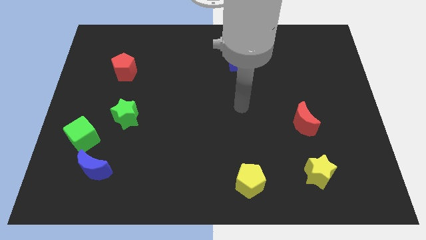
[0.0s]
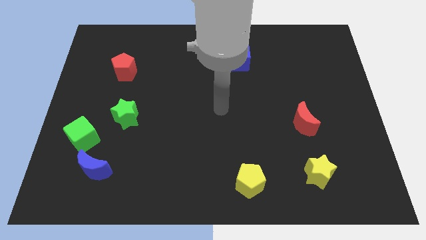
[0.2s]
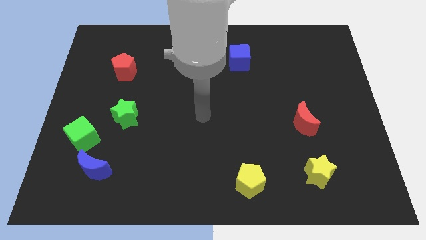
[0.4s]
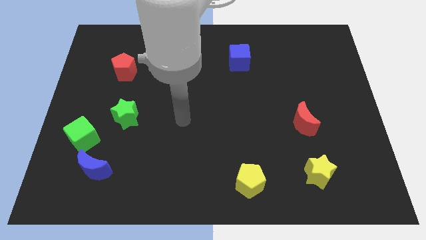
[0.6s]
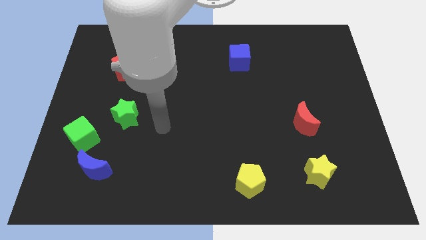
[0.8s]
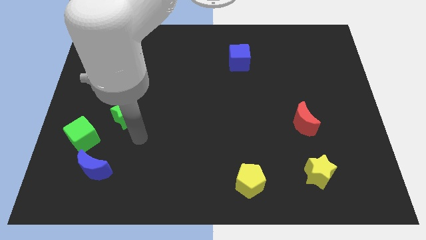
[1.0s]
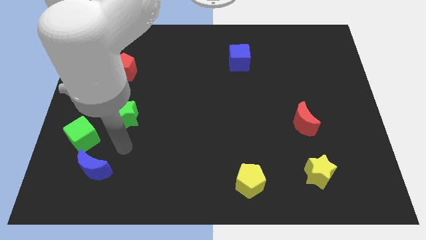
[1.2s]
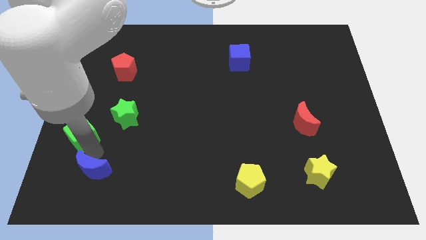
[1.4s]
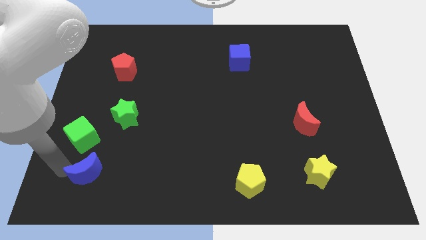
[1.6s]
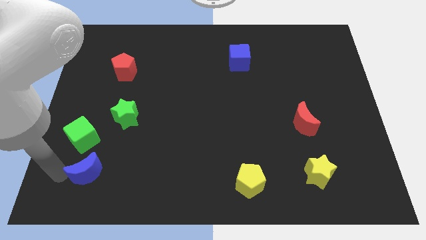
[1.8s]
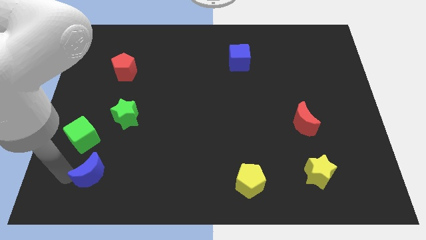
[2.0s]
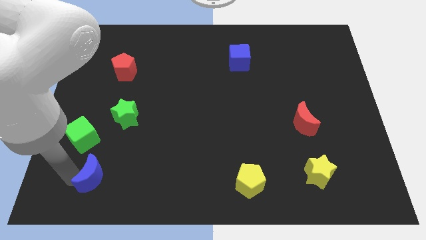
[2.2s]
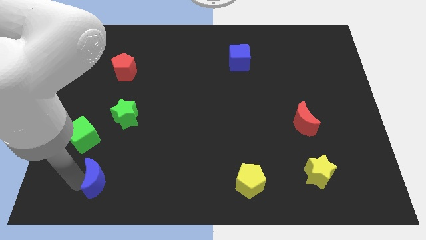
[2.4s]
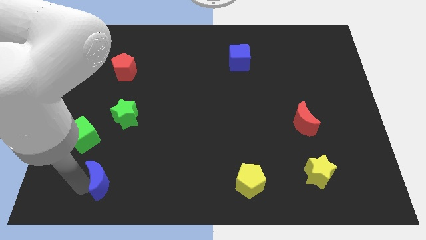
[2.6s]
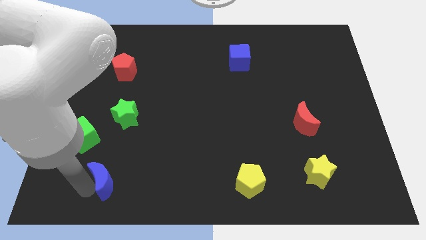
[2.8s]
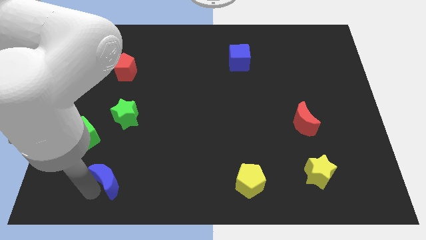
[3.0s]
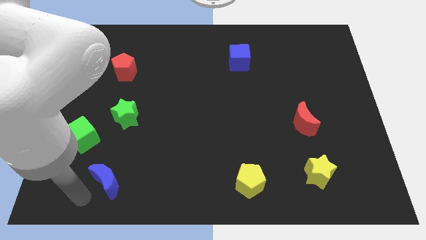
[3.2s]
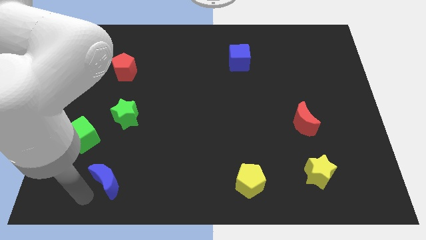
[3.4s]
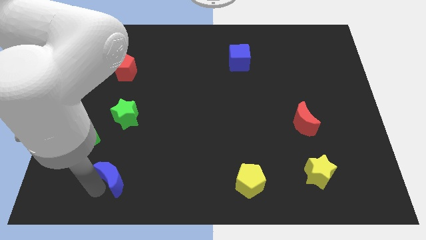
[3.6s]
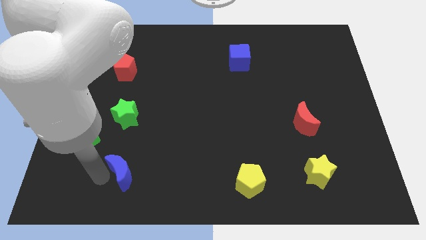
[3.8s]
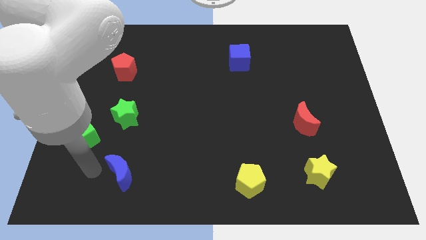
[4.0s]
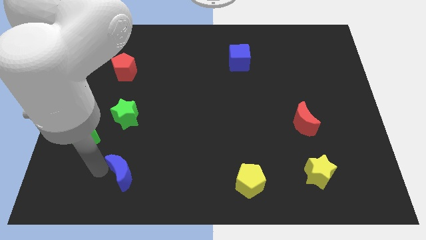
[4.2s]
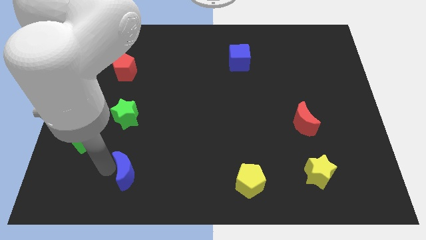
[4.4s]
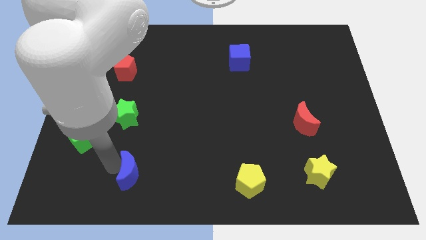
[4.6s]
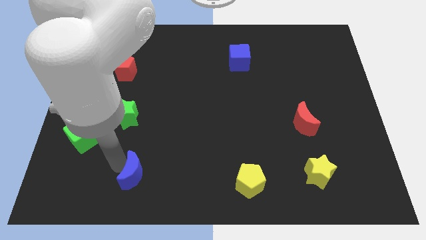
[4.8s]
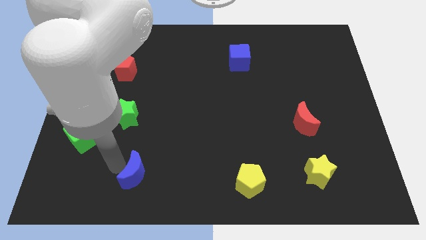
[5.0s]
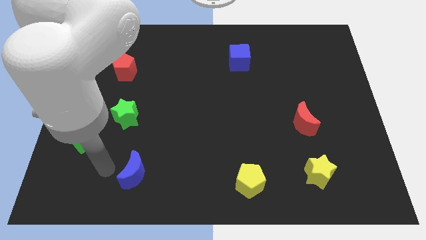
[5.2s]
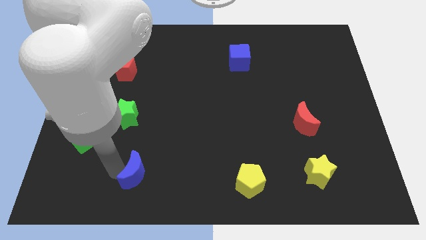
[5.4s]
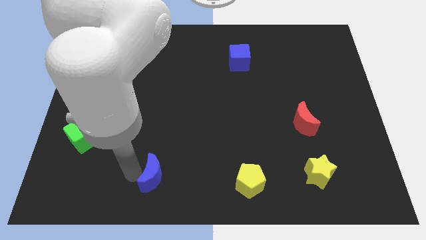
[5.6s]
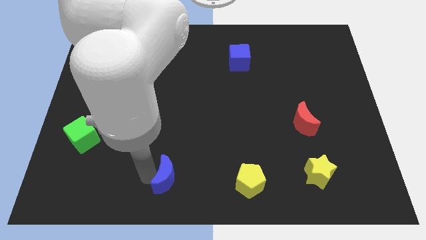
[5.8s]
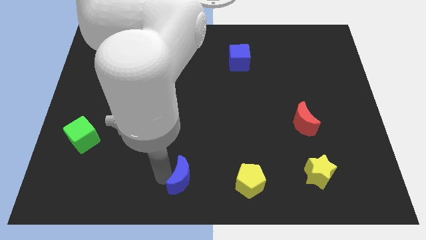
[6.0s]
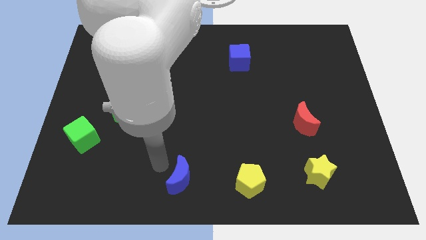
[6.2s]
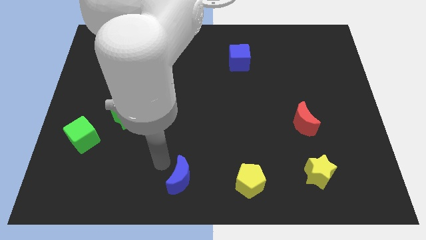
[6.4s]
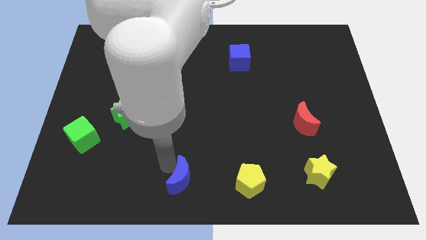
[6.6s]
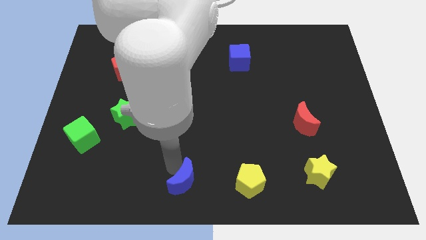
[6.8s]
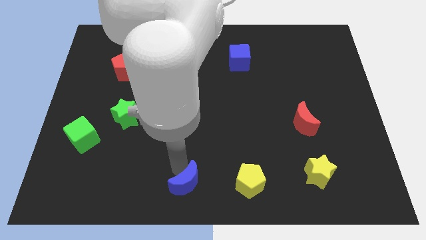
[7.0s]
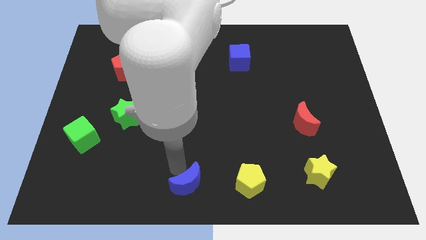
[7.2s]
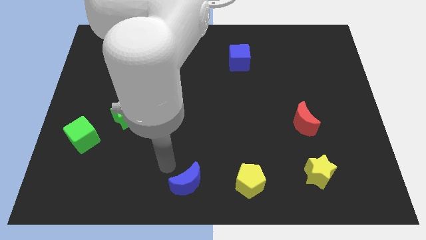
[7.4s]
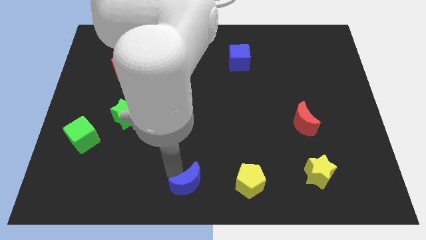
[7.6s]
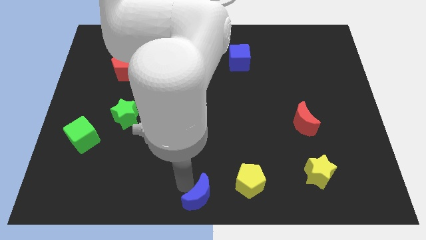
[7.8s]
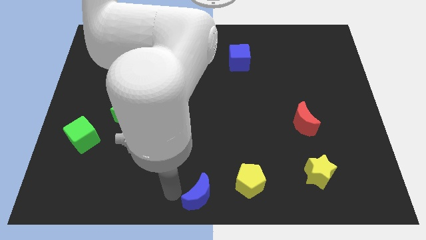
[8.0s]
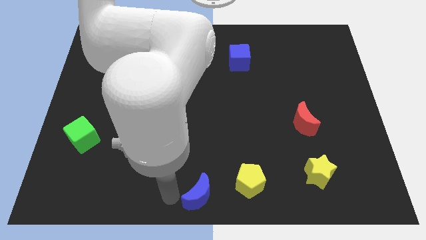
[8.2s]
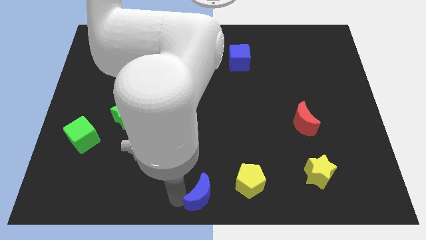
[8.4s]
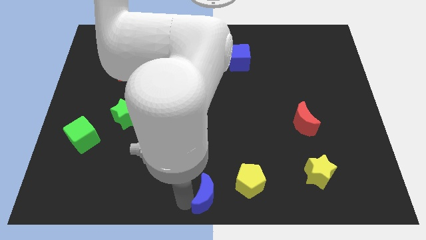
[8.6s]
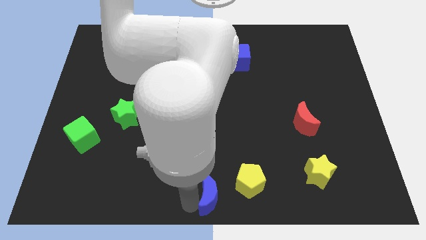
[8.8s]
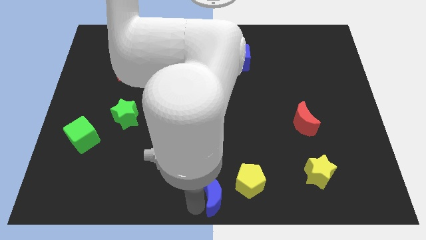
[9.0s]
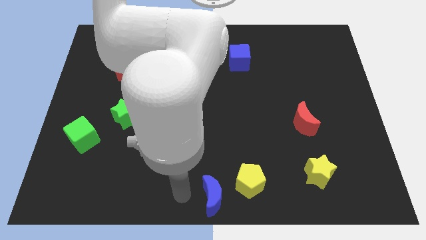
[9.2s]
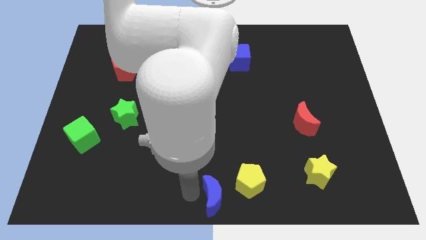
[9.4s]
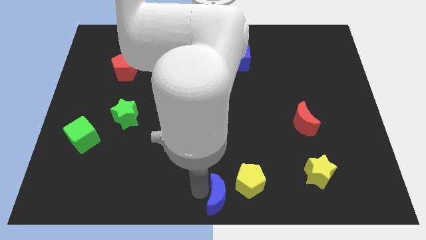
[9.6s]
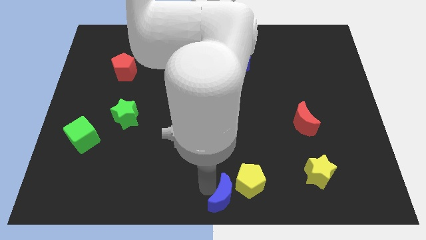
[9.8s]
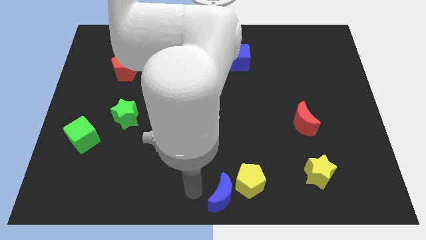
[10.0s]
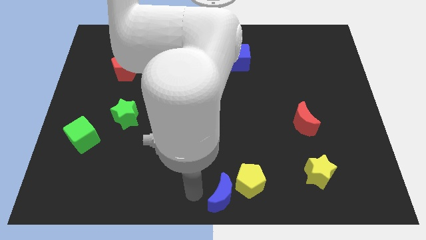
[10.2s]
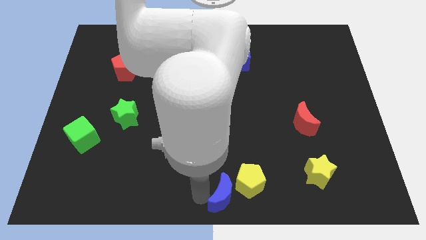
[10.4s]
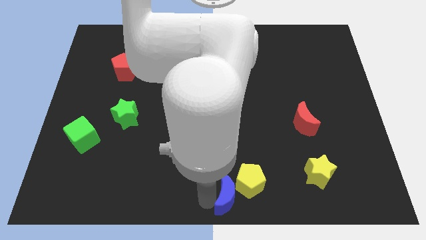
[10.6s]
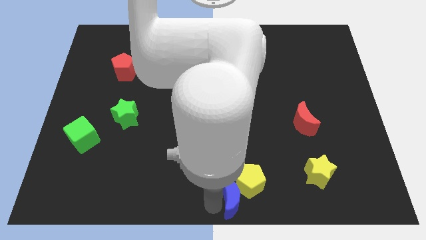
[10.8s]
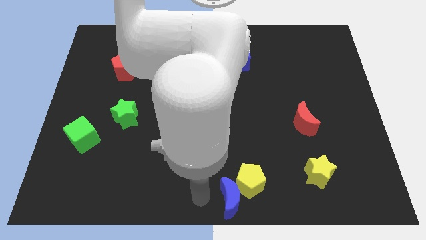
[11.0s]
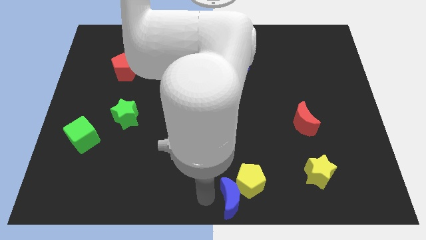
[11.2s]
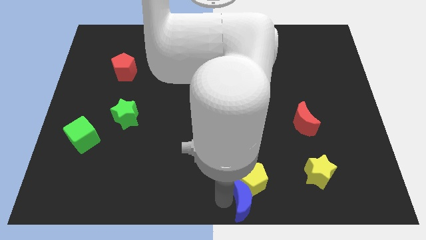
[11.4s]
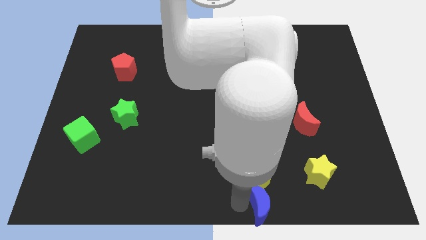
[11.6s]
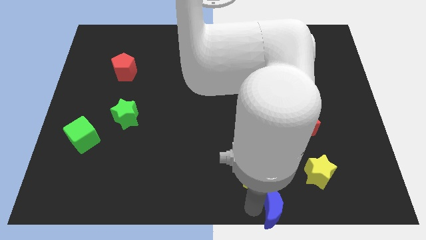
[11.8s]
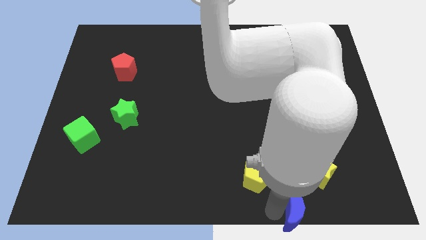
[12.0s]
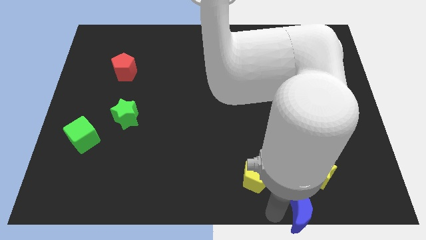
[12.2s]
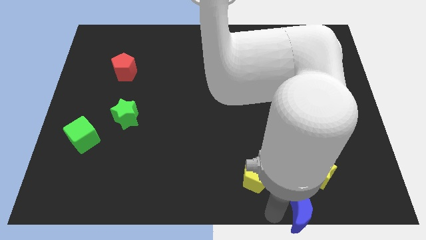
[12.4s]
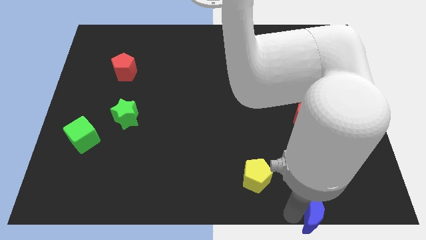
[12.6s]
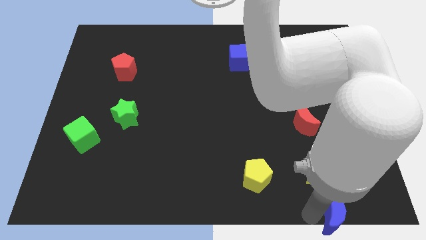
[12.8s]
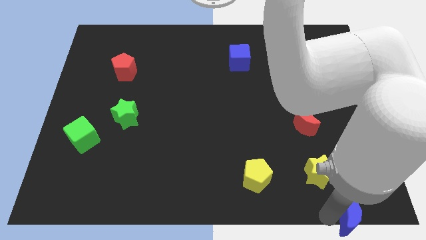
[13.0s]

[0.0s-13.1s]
push the blue moon to the bottom right corner
